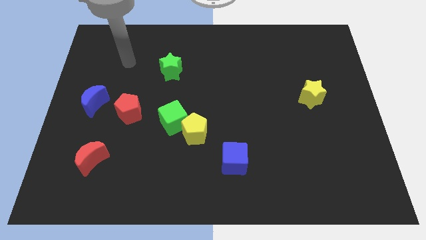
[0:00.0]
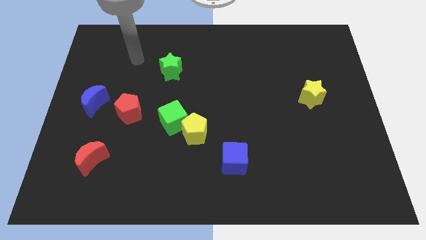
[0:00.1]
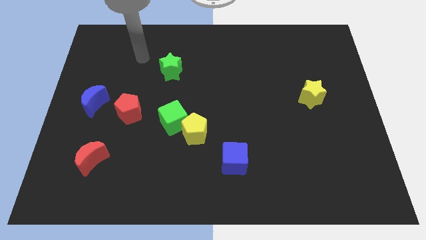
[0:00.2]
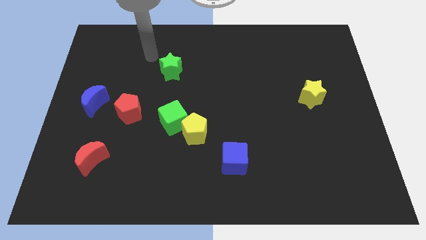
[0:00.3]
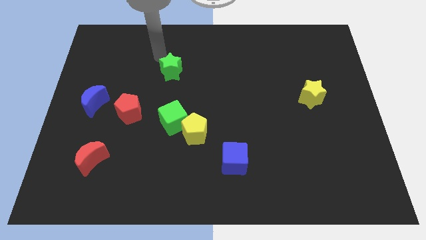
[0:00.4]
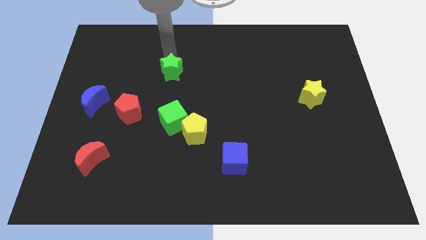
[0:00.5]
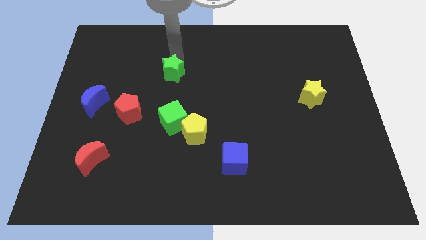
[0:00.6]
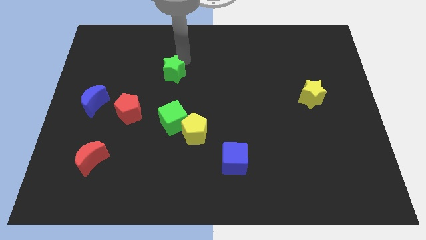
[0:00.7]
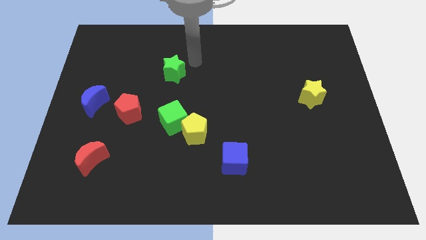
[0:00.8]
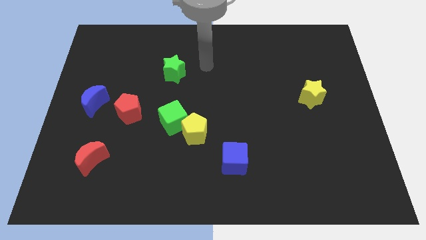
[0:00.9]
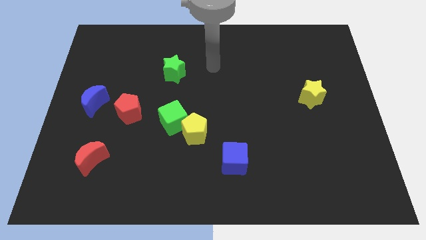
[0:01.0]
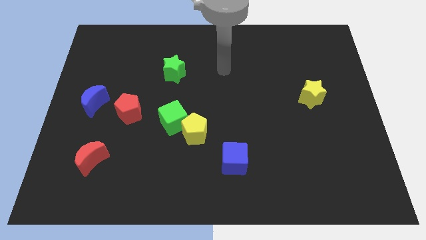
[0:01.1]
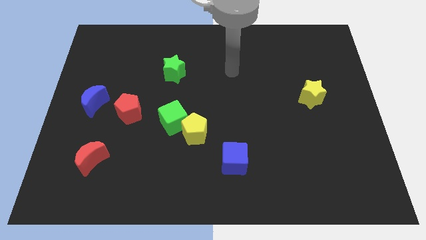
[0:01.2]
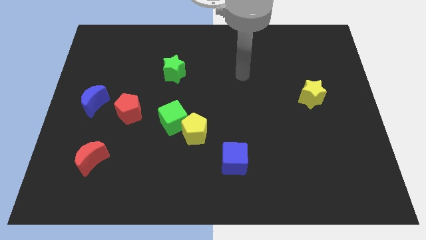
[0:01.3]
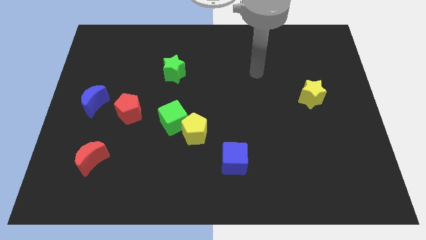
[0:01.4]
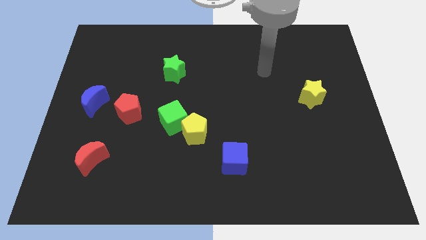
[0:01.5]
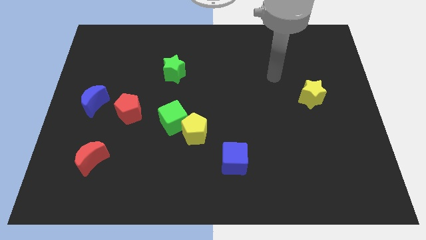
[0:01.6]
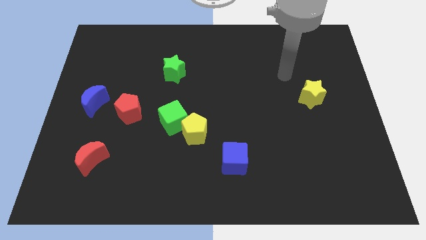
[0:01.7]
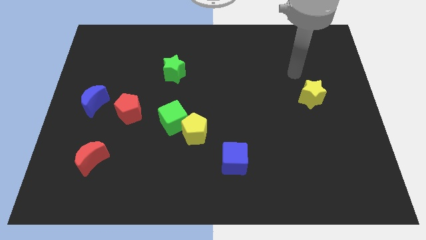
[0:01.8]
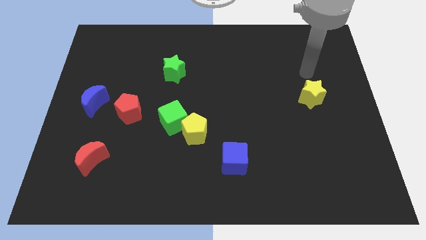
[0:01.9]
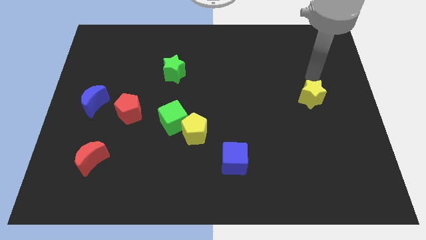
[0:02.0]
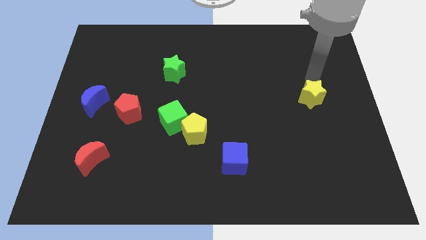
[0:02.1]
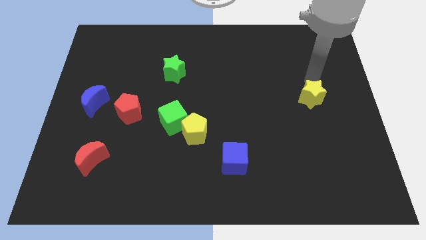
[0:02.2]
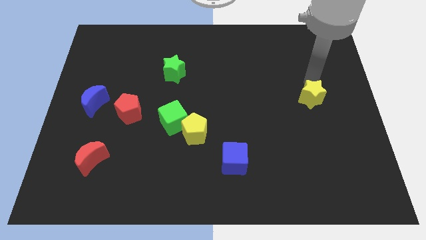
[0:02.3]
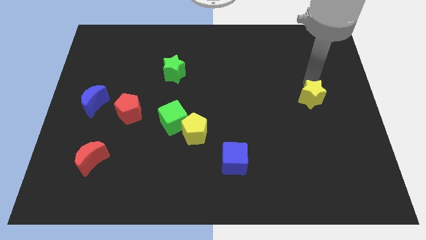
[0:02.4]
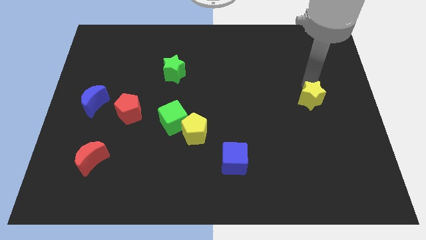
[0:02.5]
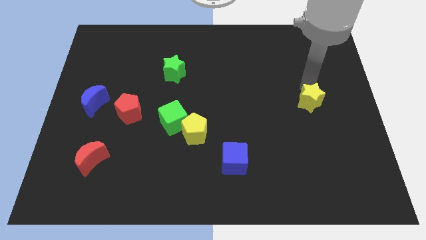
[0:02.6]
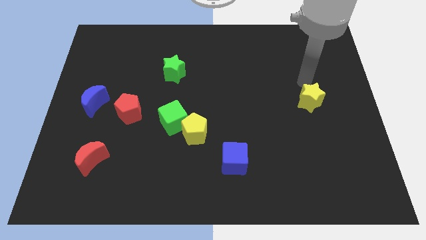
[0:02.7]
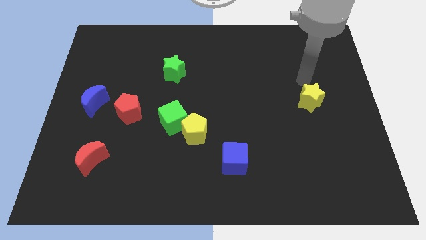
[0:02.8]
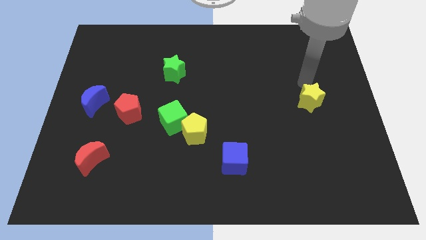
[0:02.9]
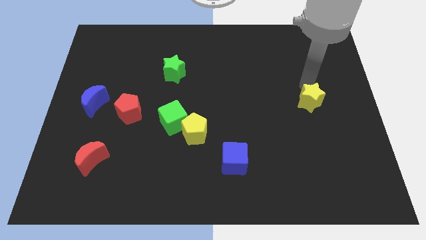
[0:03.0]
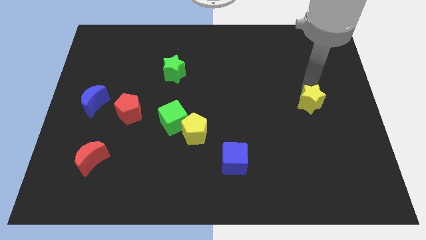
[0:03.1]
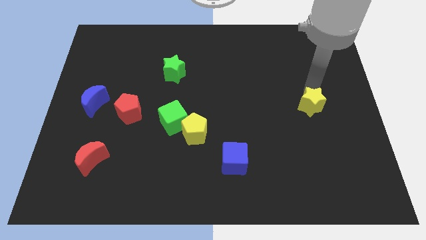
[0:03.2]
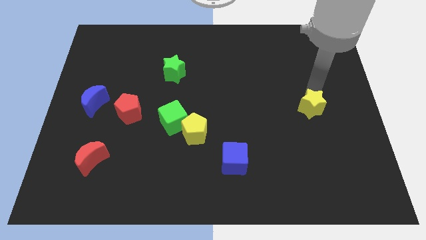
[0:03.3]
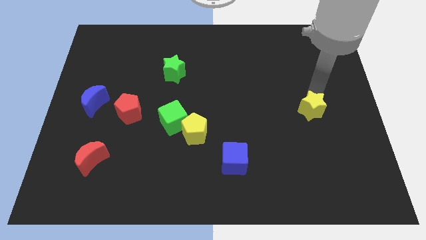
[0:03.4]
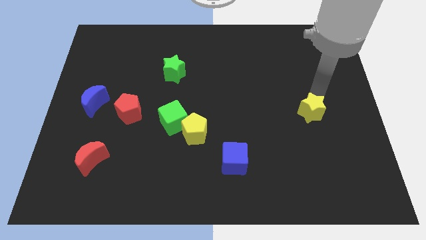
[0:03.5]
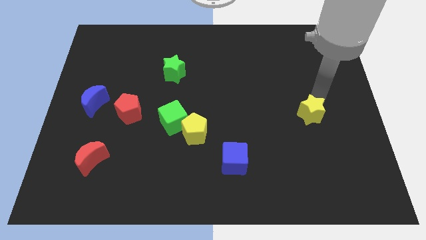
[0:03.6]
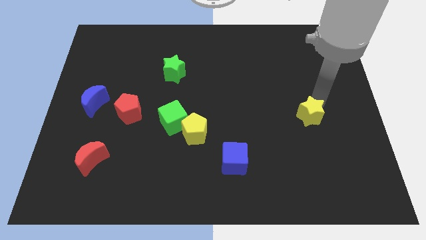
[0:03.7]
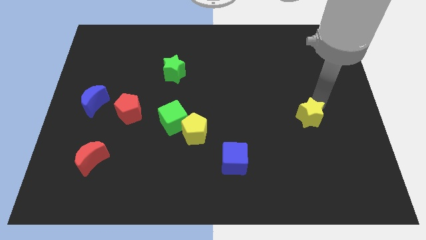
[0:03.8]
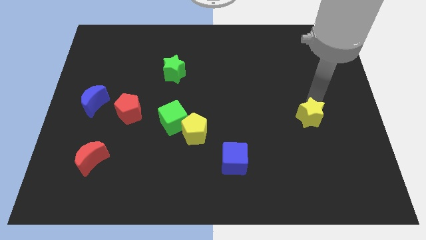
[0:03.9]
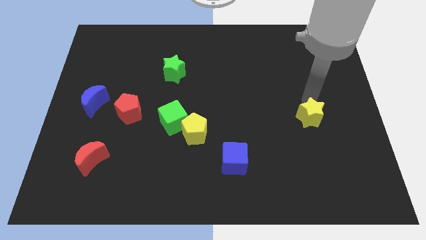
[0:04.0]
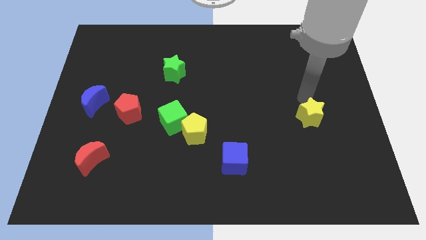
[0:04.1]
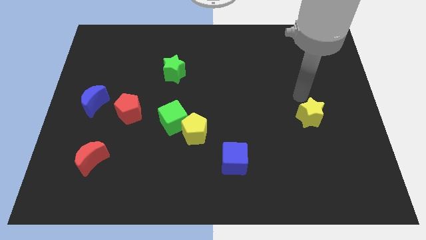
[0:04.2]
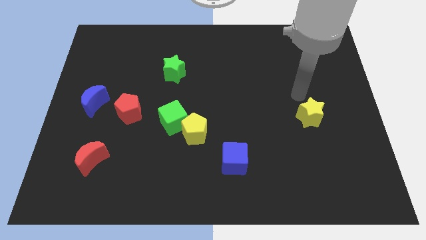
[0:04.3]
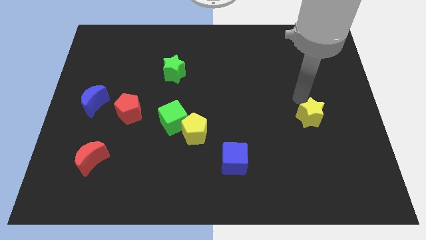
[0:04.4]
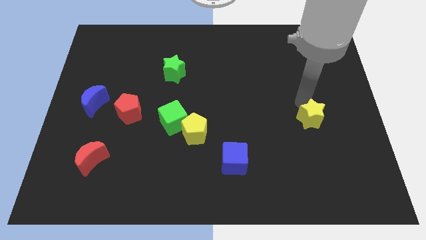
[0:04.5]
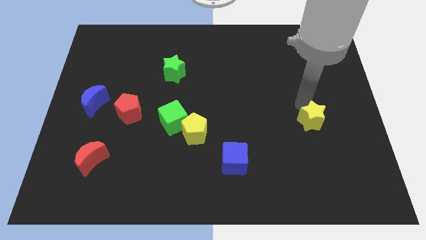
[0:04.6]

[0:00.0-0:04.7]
slightly move the yellow star downwards

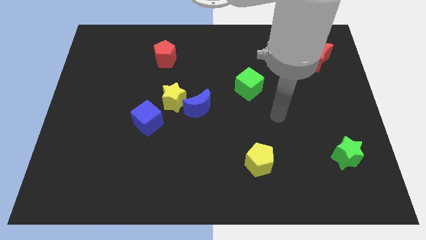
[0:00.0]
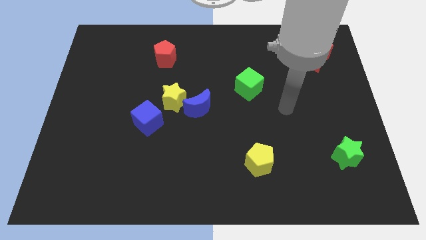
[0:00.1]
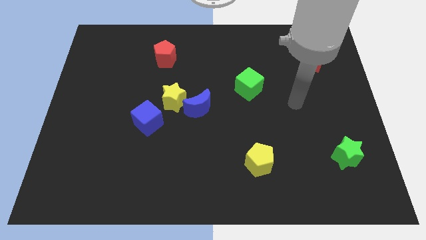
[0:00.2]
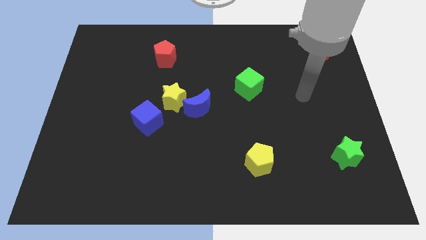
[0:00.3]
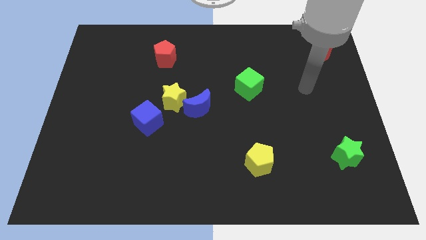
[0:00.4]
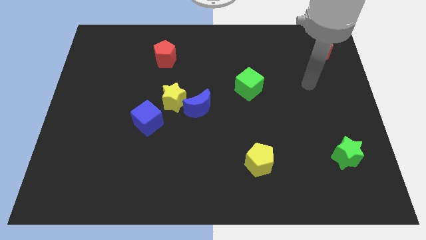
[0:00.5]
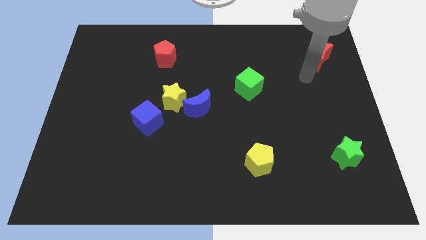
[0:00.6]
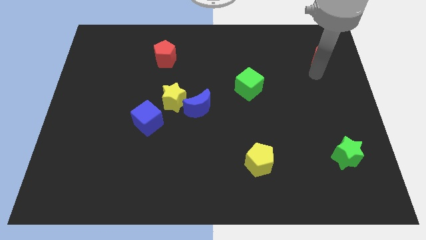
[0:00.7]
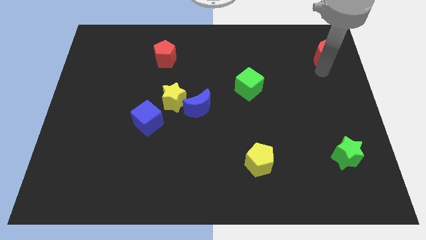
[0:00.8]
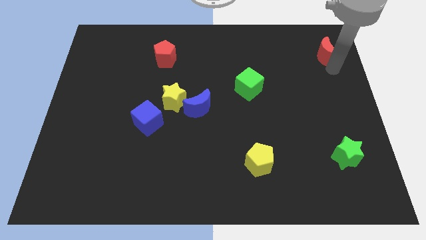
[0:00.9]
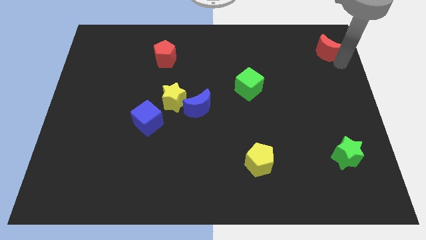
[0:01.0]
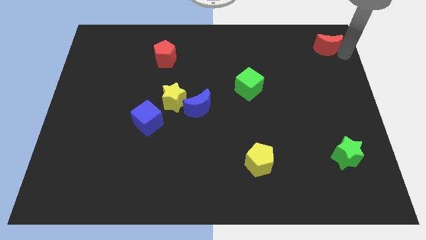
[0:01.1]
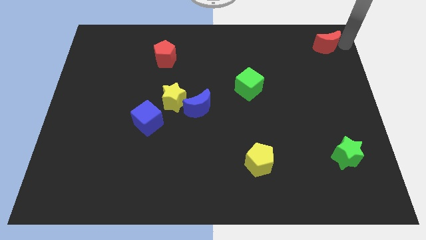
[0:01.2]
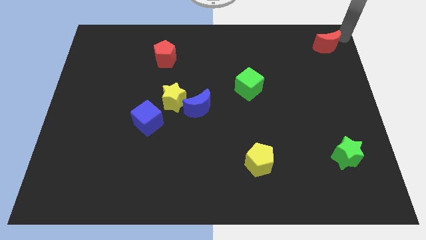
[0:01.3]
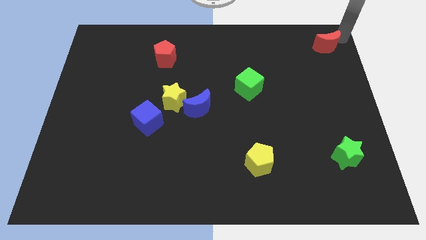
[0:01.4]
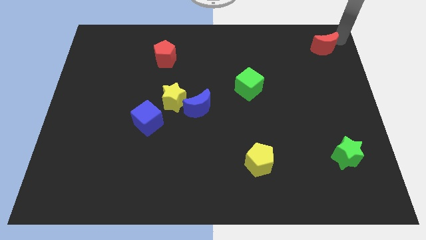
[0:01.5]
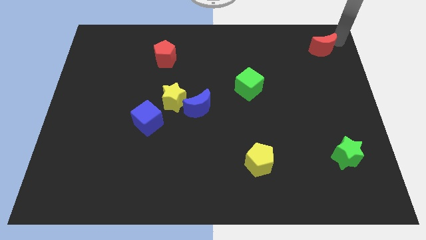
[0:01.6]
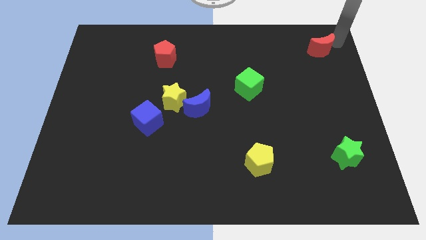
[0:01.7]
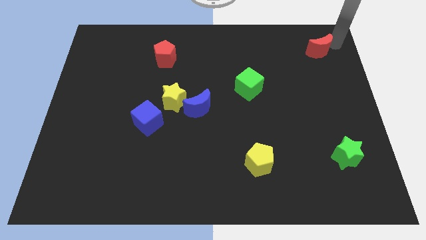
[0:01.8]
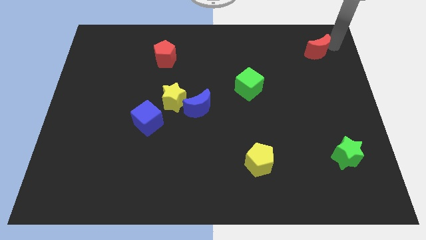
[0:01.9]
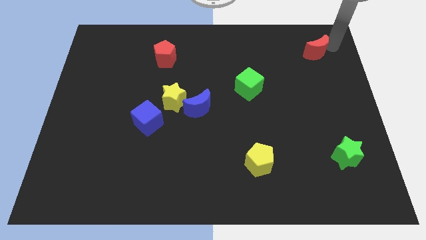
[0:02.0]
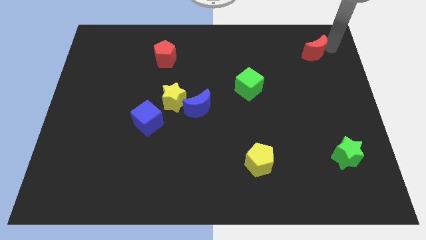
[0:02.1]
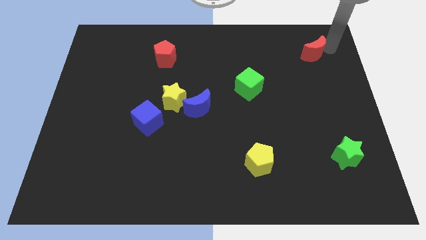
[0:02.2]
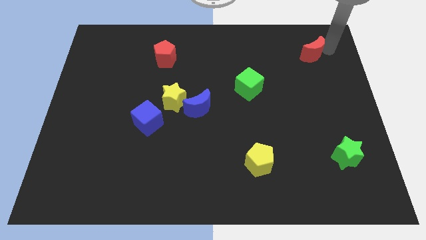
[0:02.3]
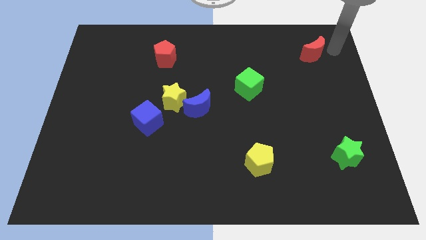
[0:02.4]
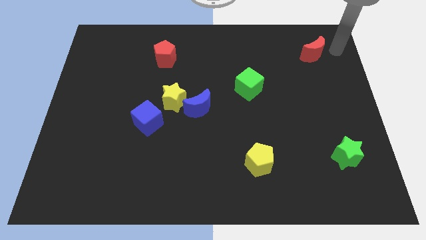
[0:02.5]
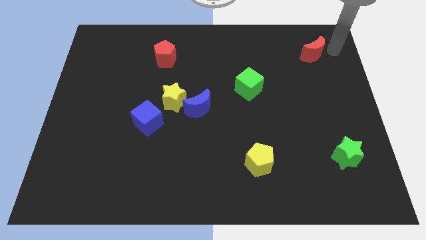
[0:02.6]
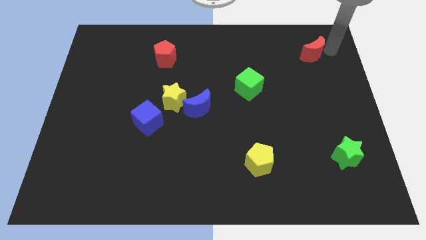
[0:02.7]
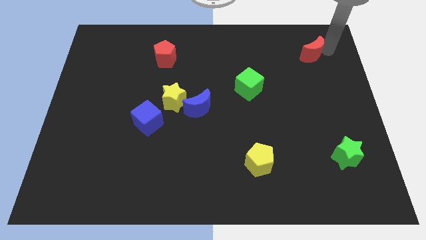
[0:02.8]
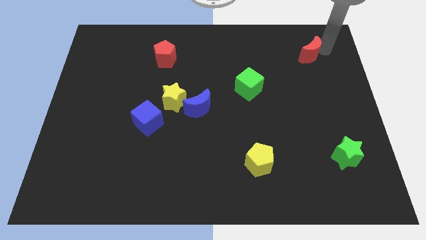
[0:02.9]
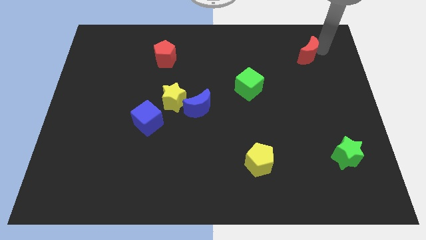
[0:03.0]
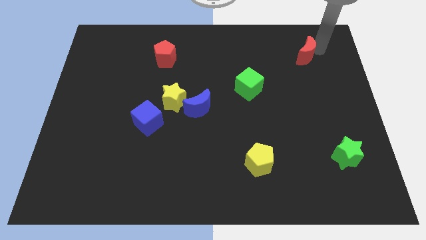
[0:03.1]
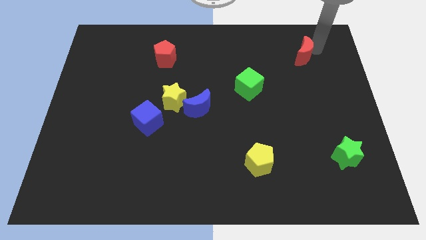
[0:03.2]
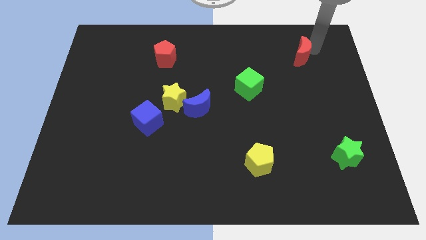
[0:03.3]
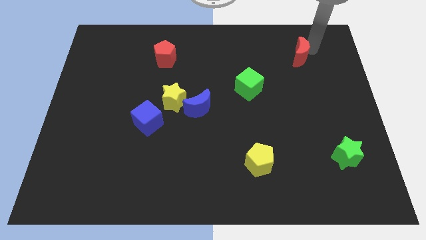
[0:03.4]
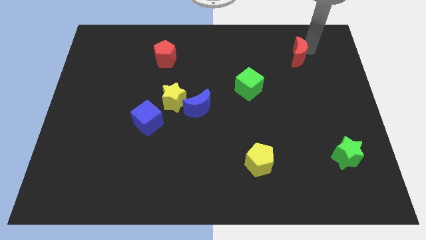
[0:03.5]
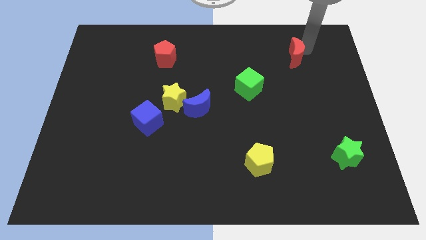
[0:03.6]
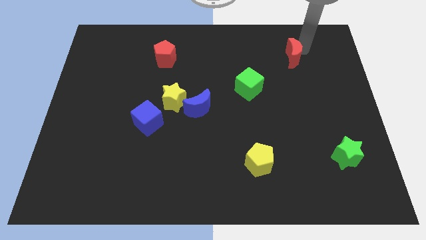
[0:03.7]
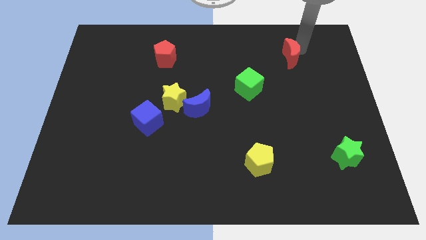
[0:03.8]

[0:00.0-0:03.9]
slide the red moon left a little bit
